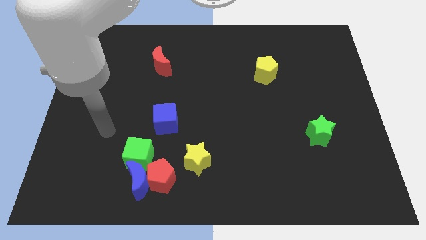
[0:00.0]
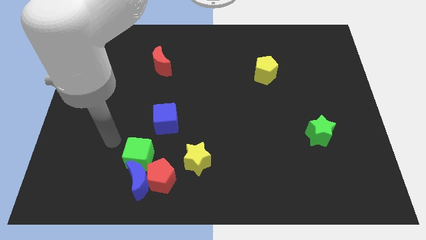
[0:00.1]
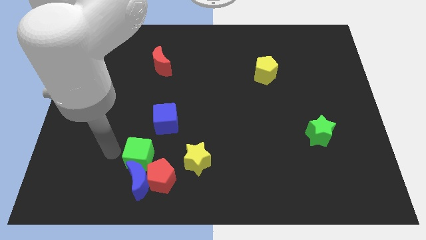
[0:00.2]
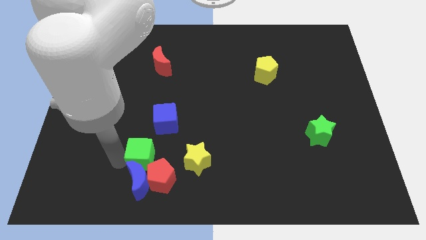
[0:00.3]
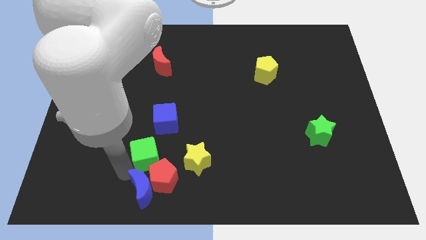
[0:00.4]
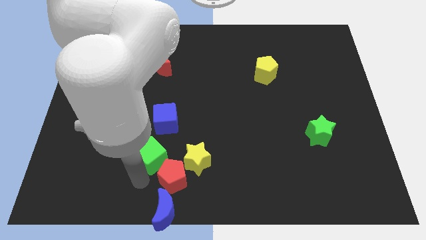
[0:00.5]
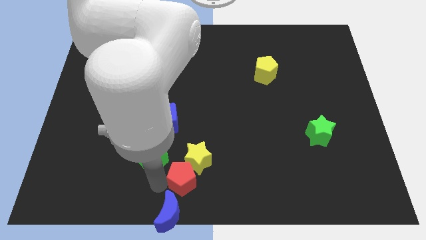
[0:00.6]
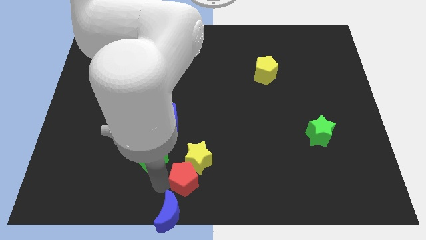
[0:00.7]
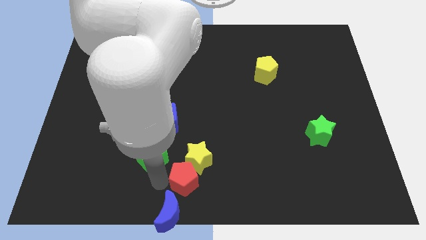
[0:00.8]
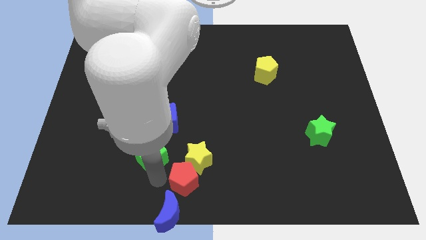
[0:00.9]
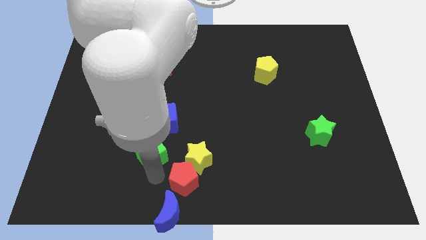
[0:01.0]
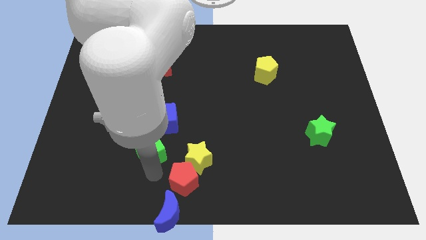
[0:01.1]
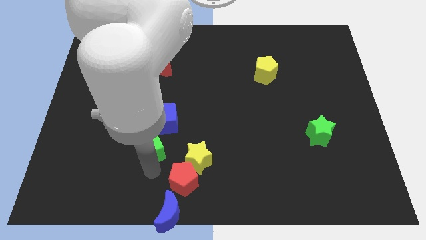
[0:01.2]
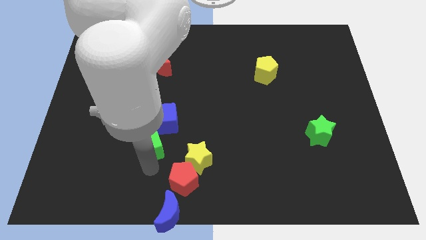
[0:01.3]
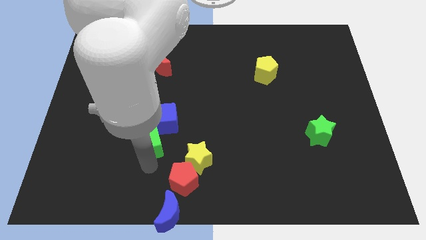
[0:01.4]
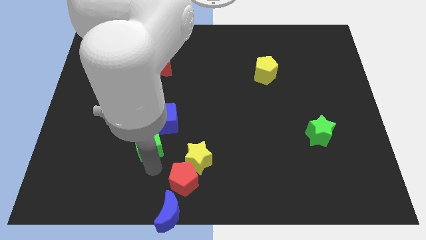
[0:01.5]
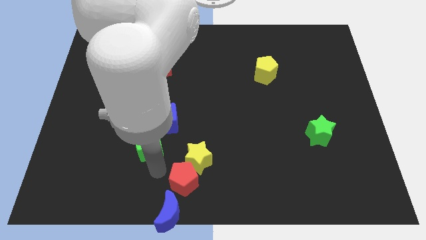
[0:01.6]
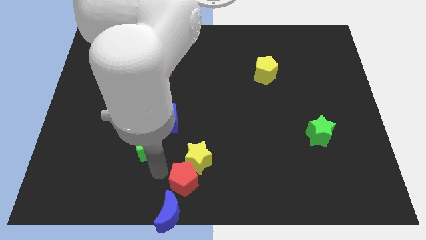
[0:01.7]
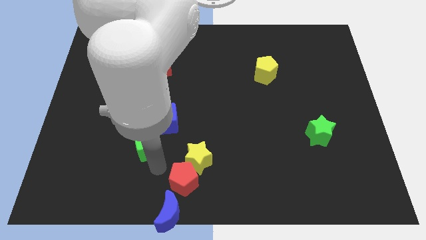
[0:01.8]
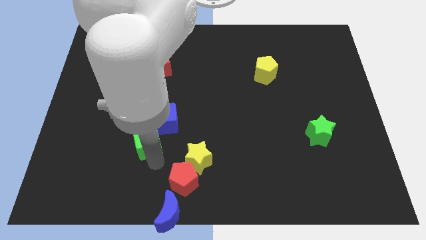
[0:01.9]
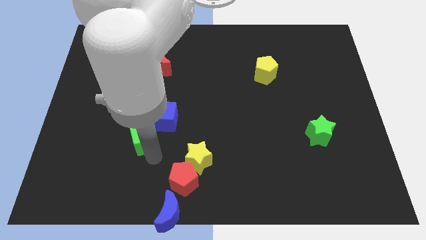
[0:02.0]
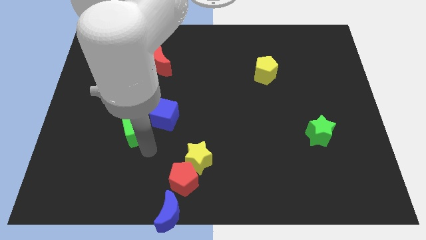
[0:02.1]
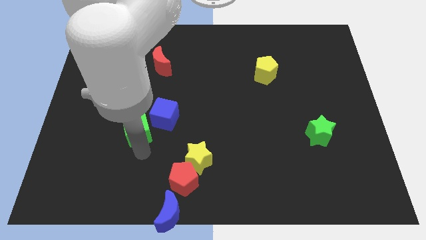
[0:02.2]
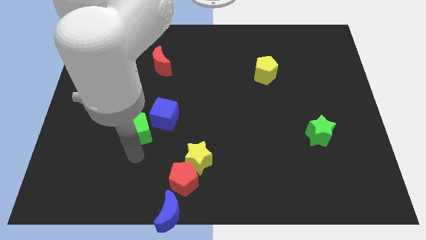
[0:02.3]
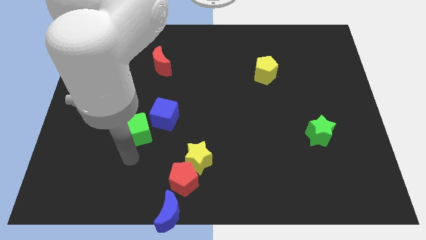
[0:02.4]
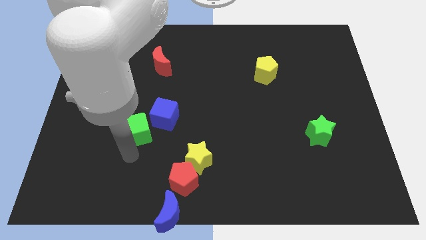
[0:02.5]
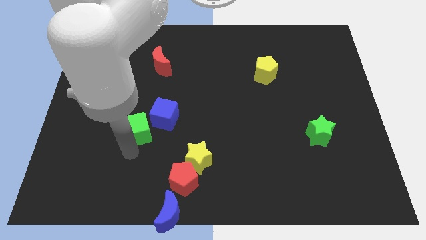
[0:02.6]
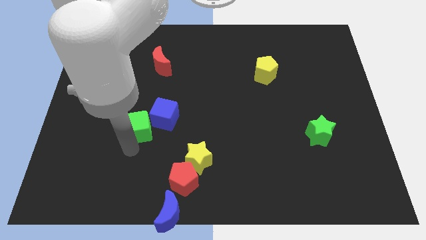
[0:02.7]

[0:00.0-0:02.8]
move the green cube a little up

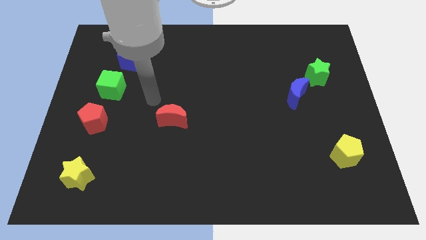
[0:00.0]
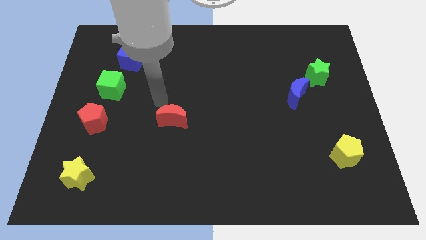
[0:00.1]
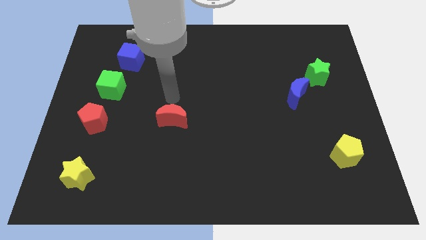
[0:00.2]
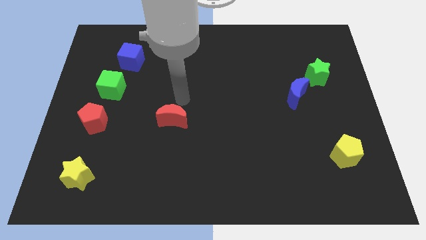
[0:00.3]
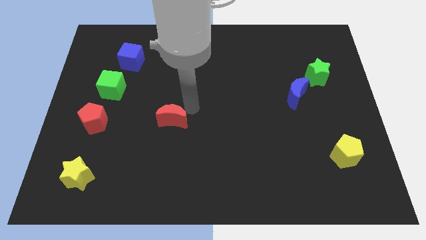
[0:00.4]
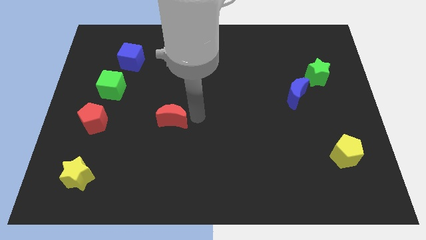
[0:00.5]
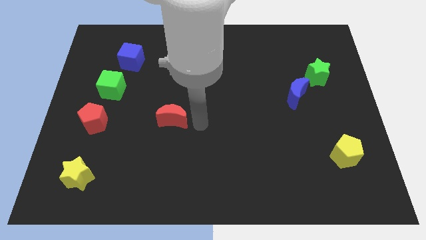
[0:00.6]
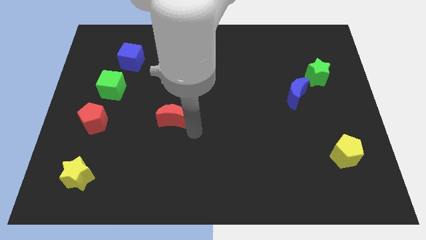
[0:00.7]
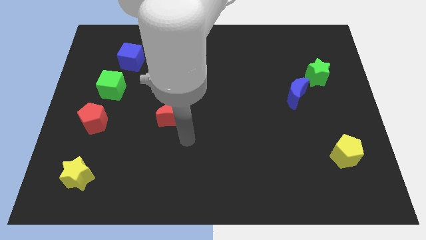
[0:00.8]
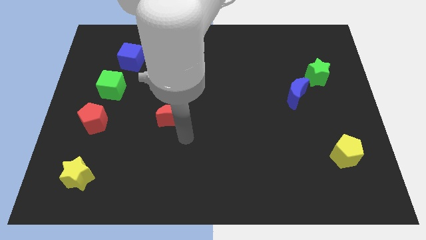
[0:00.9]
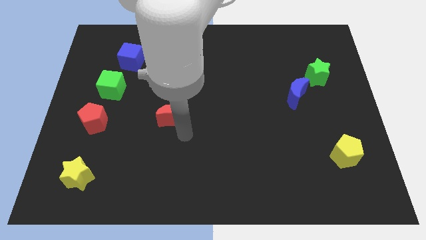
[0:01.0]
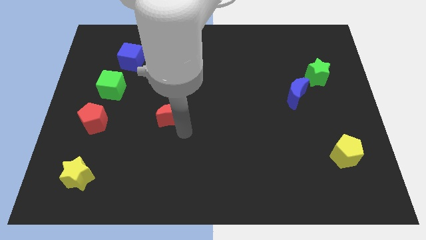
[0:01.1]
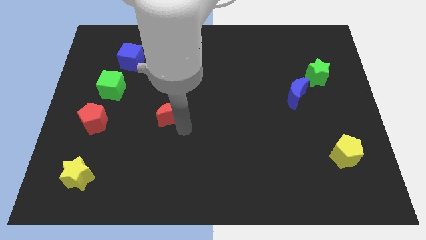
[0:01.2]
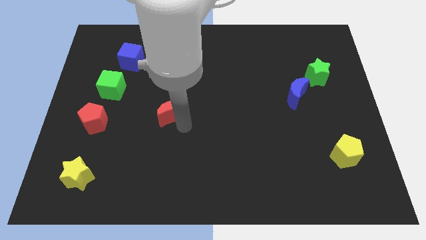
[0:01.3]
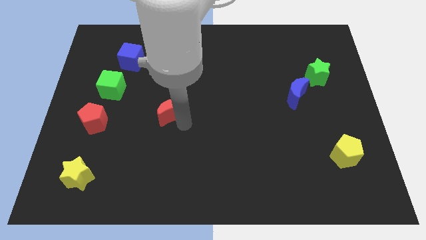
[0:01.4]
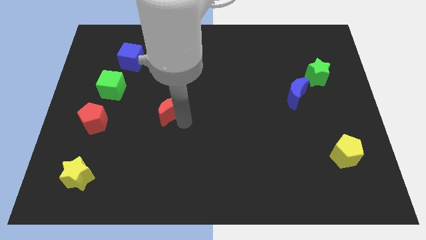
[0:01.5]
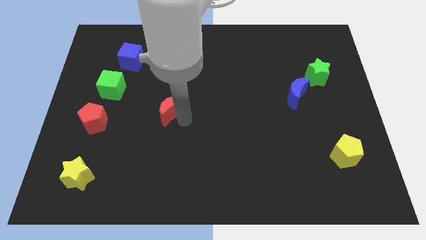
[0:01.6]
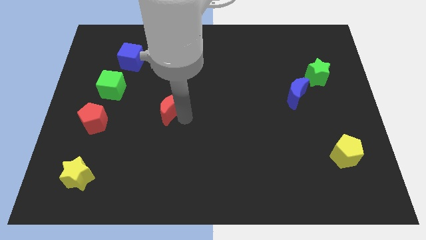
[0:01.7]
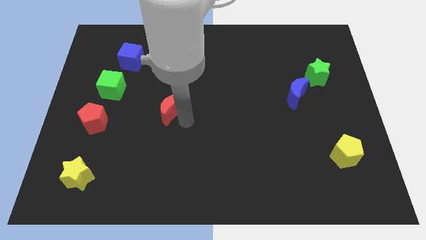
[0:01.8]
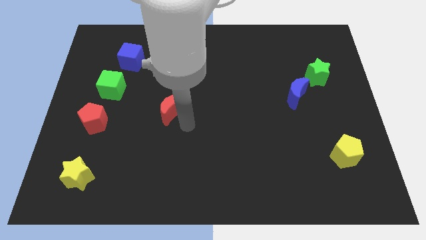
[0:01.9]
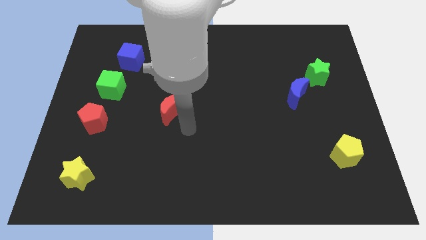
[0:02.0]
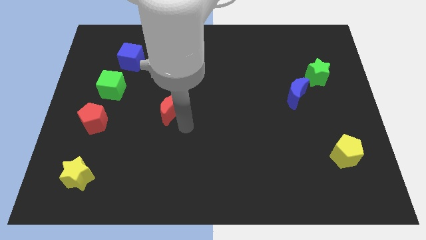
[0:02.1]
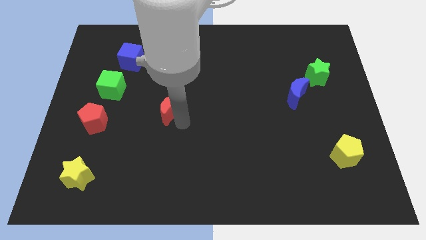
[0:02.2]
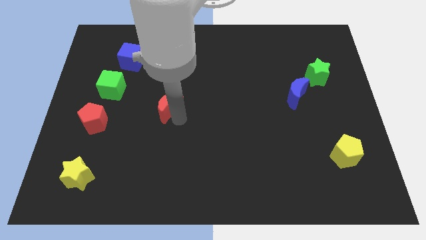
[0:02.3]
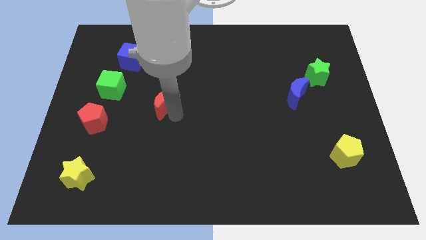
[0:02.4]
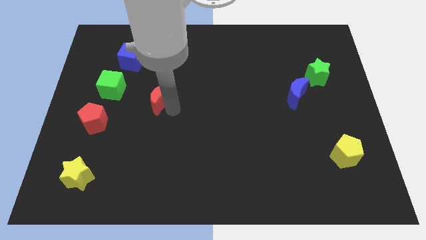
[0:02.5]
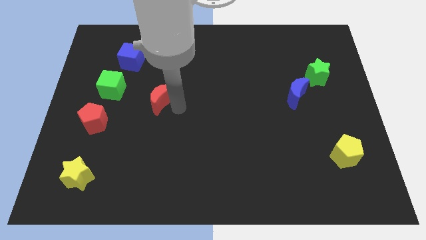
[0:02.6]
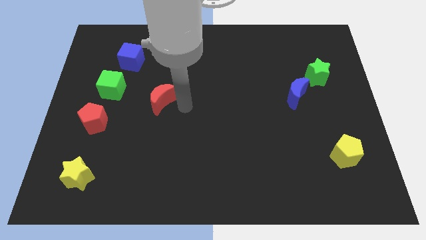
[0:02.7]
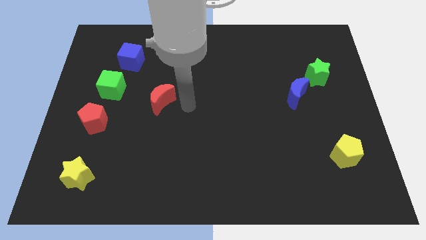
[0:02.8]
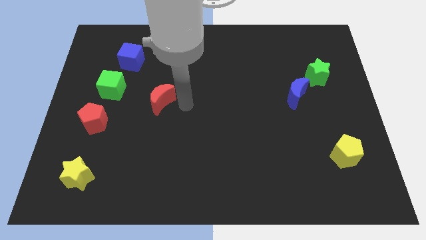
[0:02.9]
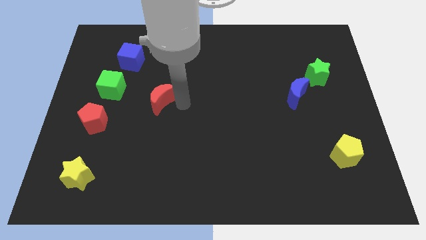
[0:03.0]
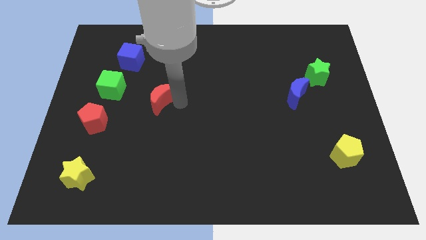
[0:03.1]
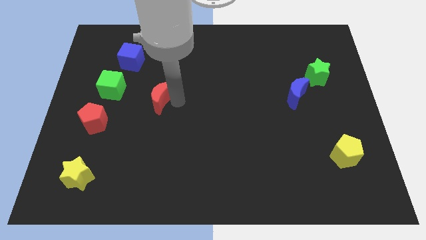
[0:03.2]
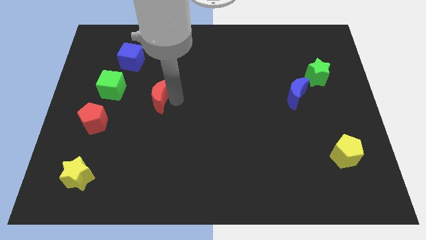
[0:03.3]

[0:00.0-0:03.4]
move the red moon up and then to the left slightly

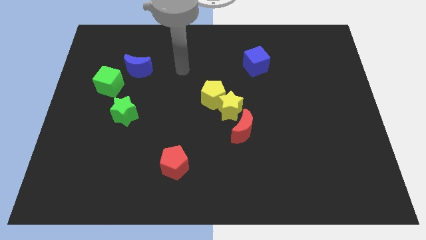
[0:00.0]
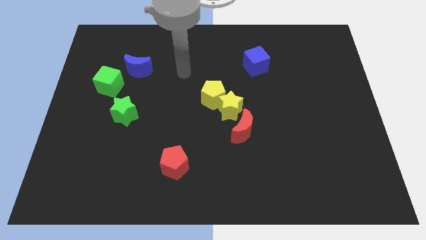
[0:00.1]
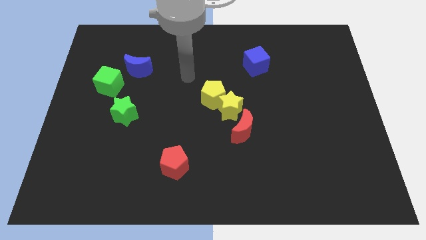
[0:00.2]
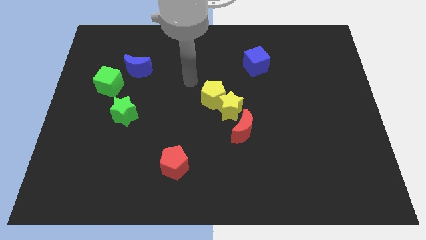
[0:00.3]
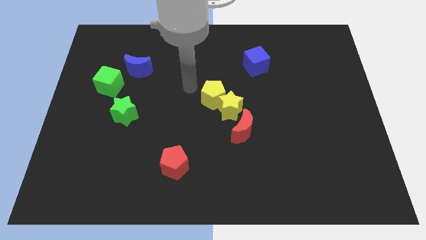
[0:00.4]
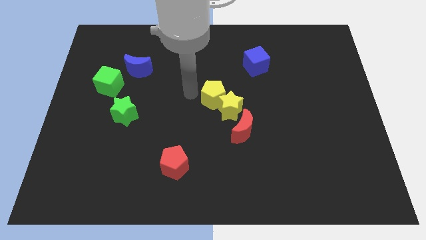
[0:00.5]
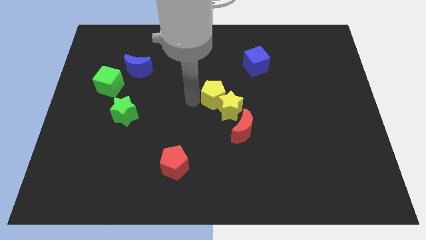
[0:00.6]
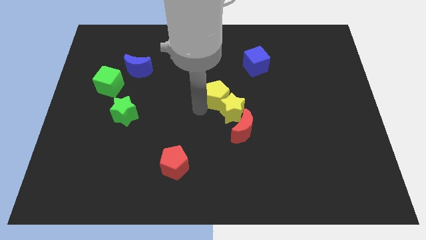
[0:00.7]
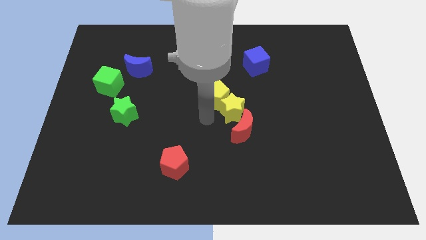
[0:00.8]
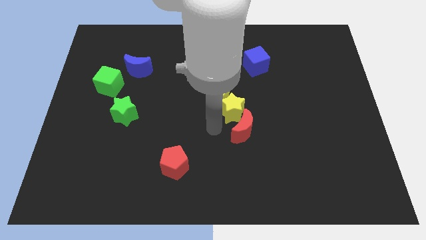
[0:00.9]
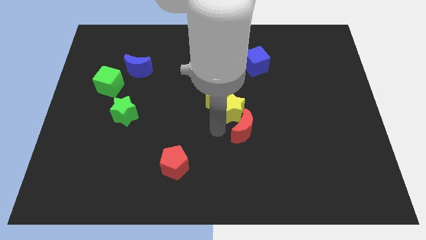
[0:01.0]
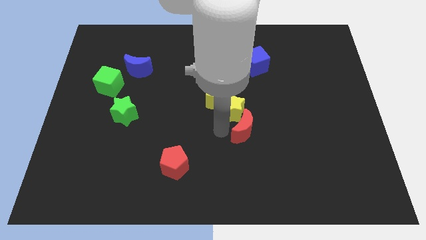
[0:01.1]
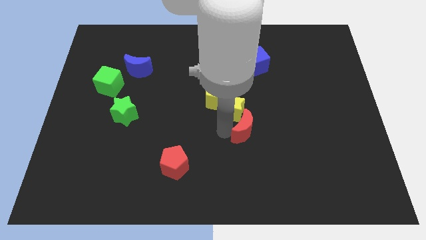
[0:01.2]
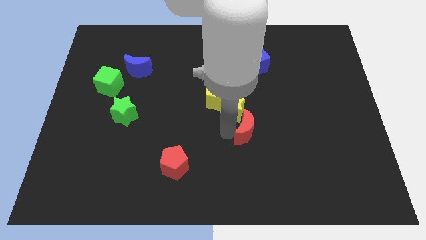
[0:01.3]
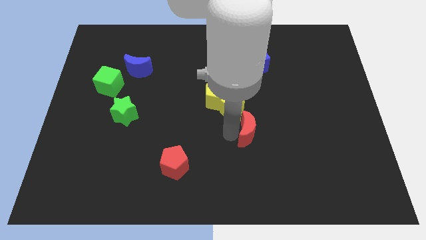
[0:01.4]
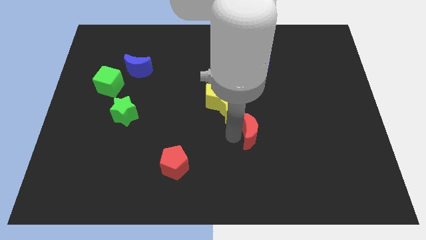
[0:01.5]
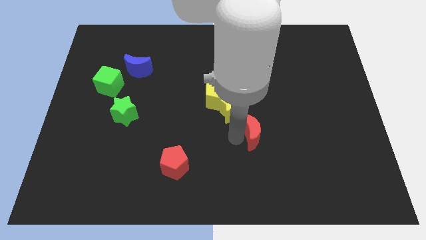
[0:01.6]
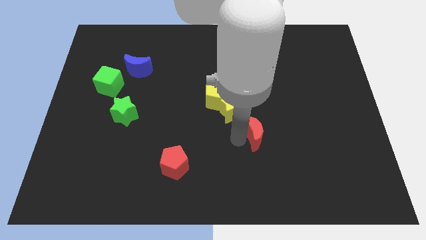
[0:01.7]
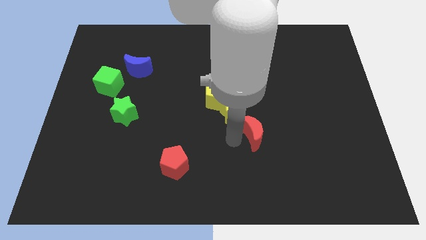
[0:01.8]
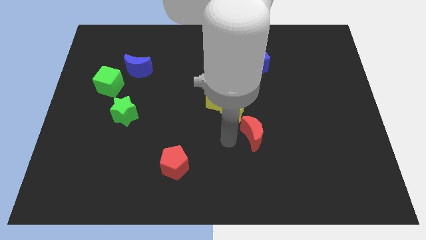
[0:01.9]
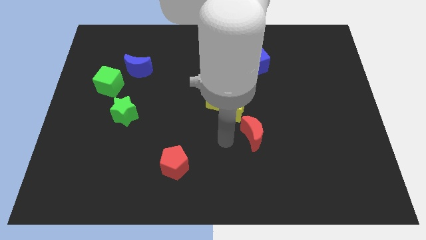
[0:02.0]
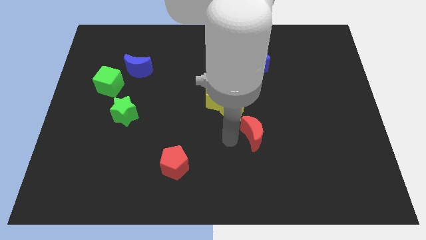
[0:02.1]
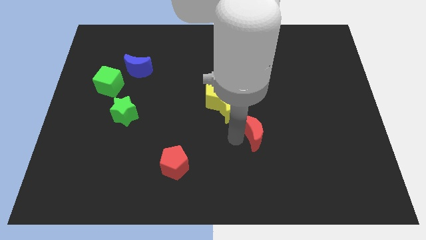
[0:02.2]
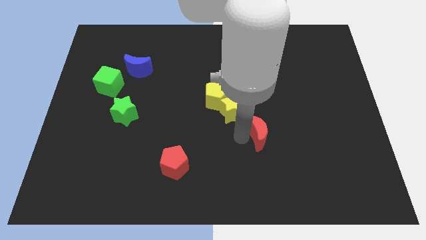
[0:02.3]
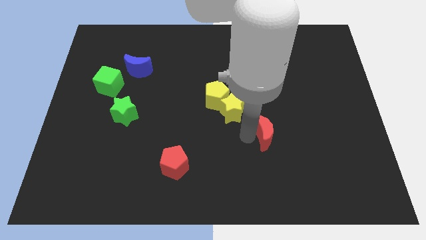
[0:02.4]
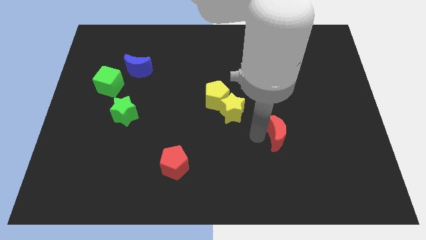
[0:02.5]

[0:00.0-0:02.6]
push the red moon to the right a little bit
